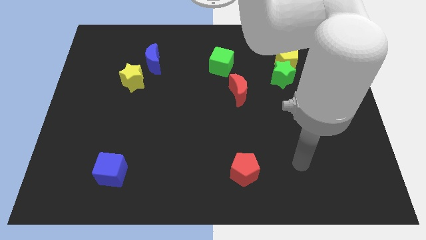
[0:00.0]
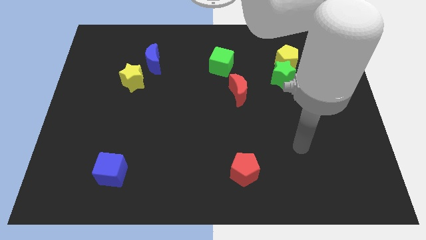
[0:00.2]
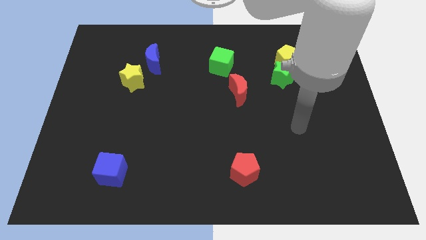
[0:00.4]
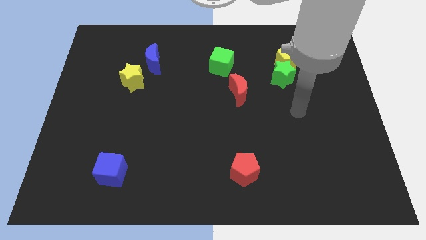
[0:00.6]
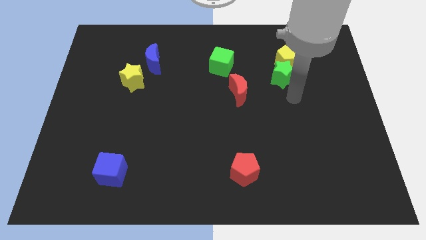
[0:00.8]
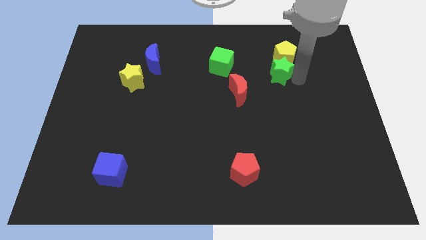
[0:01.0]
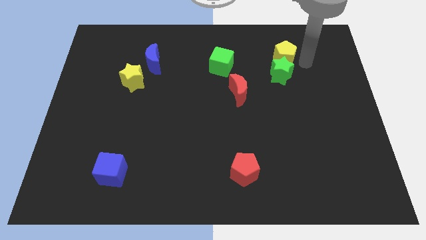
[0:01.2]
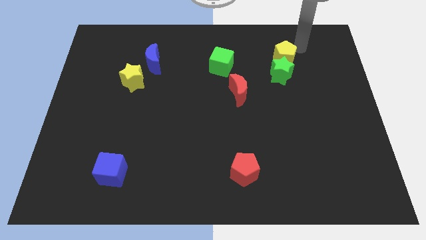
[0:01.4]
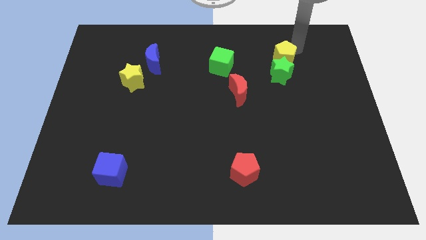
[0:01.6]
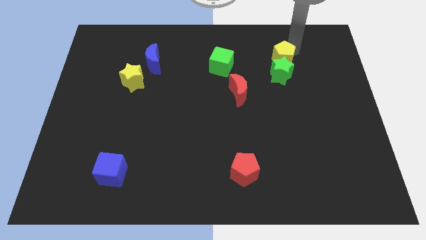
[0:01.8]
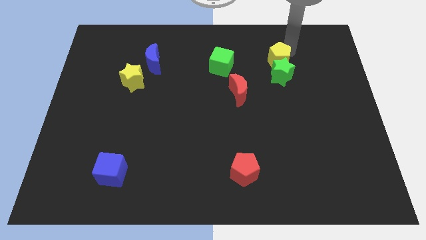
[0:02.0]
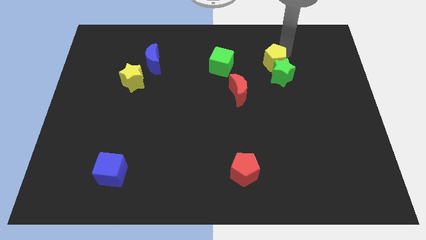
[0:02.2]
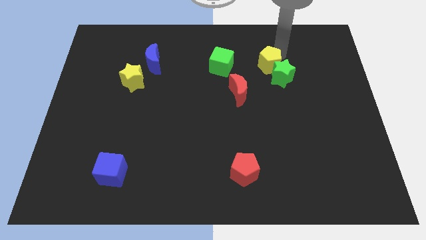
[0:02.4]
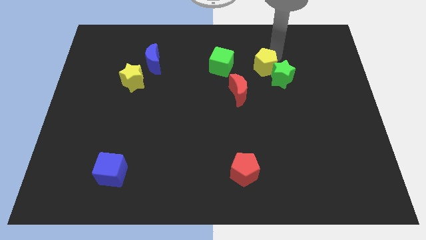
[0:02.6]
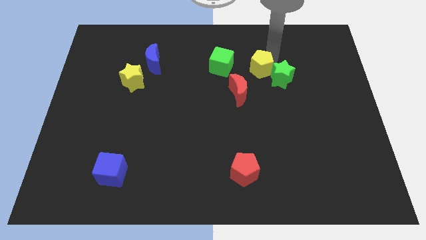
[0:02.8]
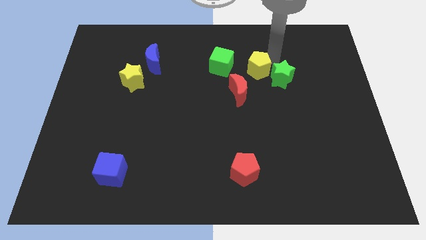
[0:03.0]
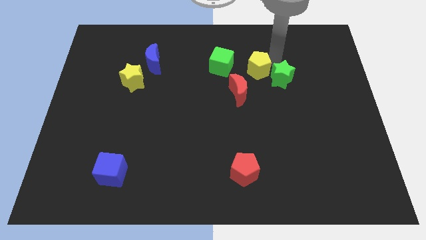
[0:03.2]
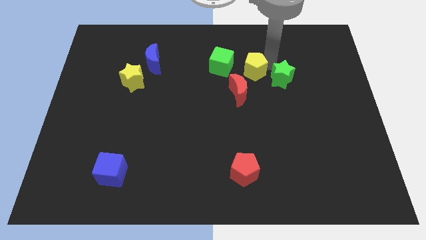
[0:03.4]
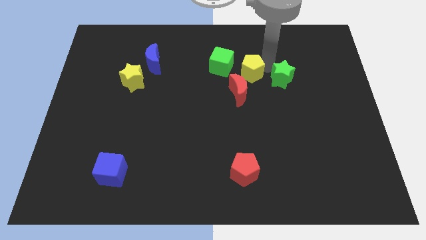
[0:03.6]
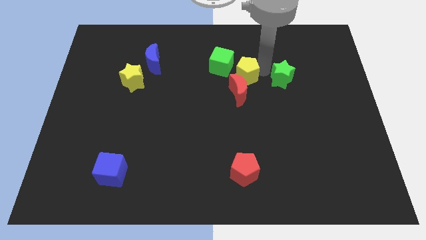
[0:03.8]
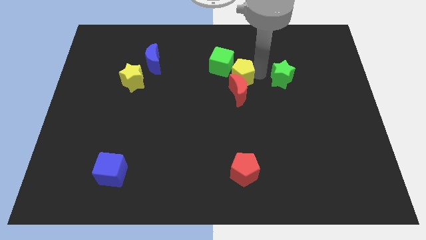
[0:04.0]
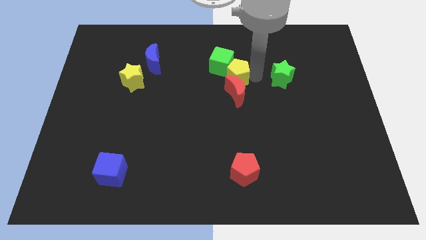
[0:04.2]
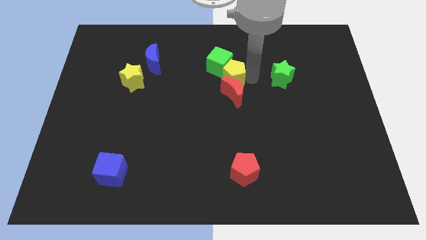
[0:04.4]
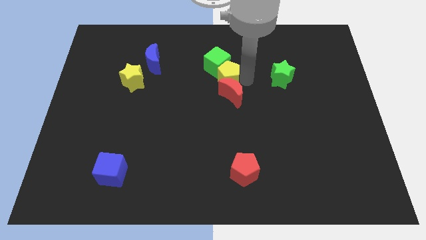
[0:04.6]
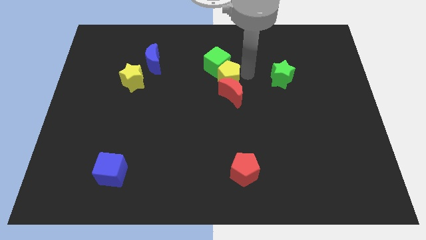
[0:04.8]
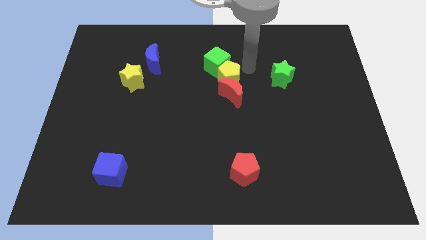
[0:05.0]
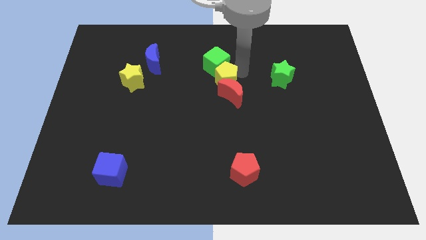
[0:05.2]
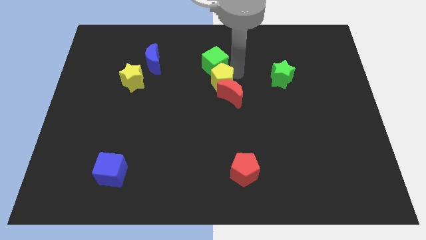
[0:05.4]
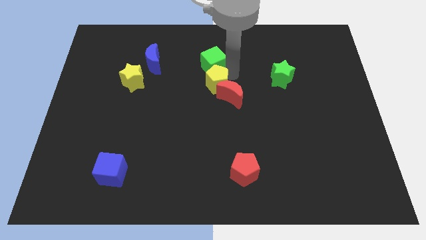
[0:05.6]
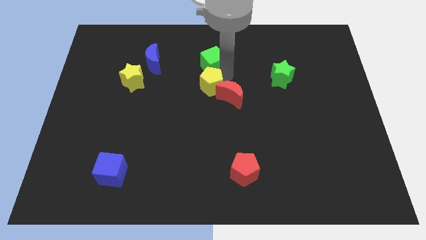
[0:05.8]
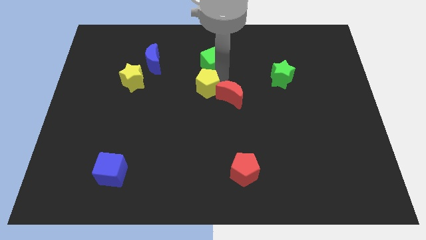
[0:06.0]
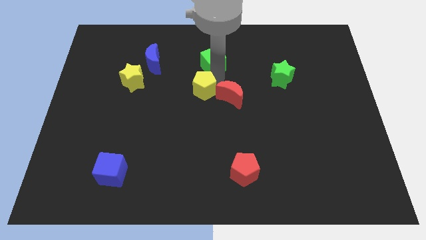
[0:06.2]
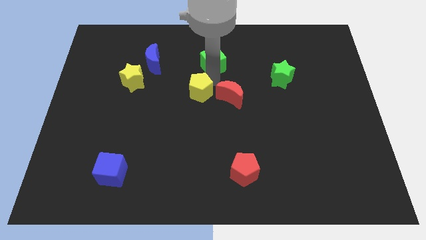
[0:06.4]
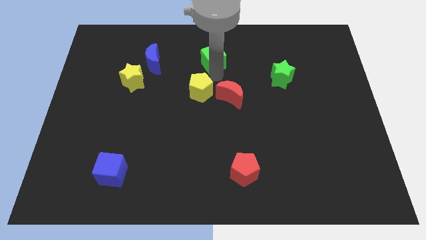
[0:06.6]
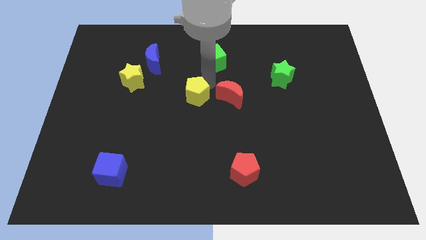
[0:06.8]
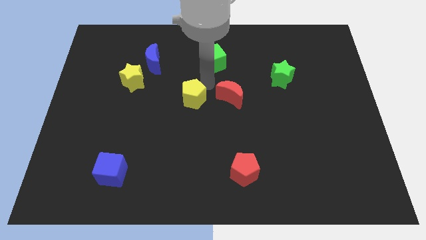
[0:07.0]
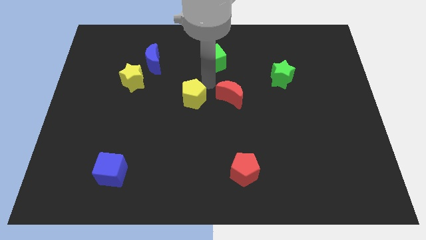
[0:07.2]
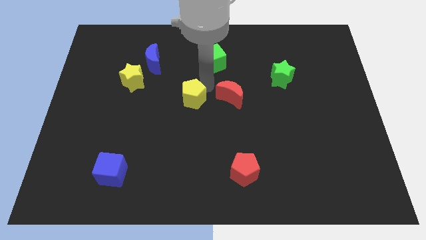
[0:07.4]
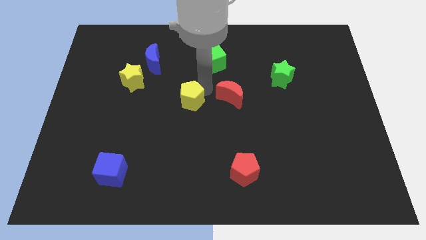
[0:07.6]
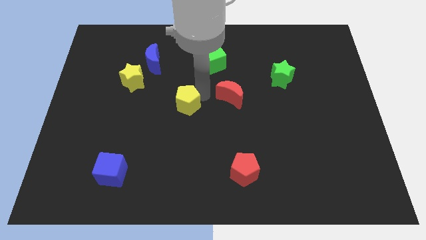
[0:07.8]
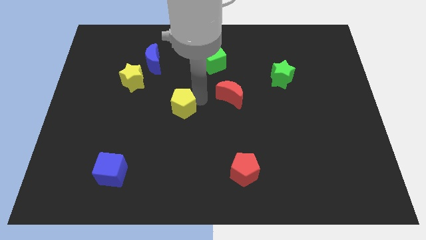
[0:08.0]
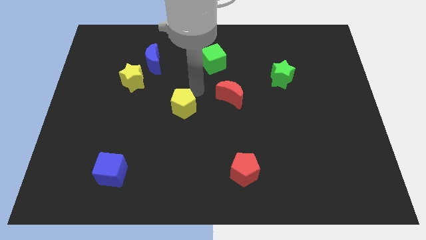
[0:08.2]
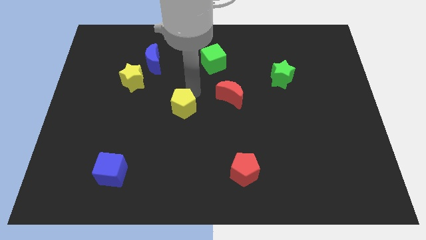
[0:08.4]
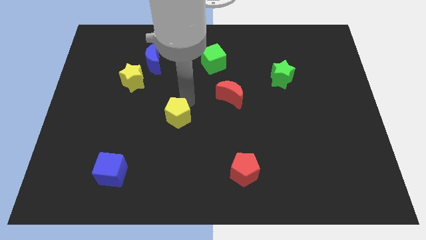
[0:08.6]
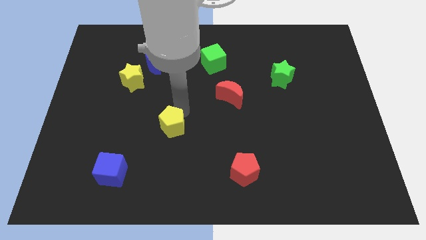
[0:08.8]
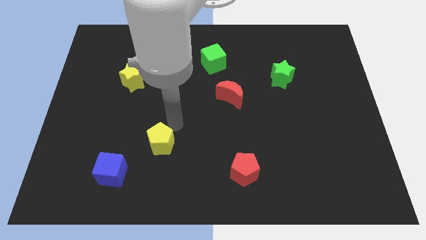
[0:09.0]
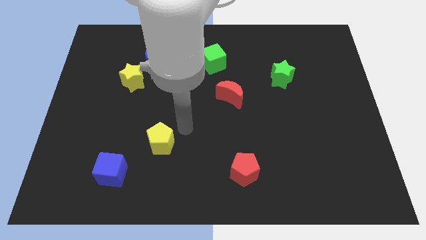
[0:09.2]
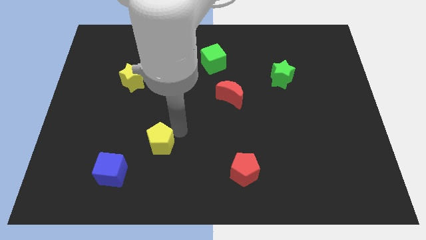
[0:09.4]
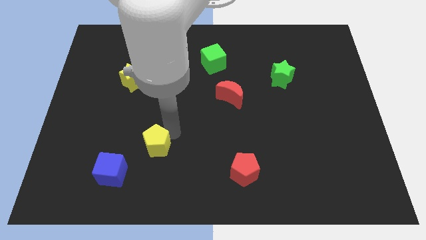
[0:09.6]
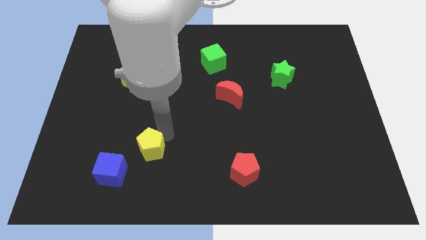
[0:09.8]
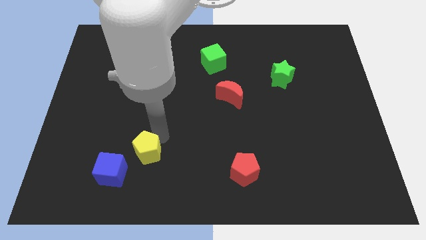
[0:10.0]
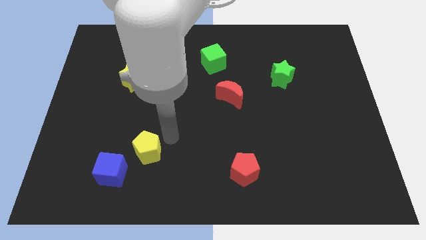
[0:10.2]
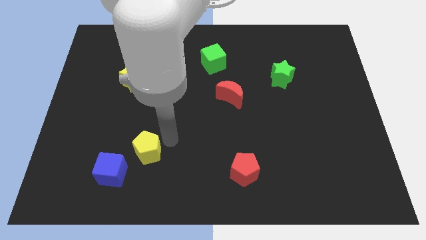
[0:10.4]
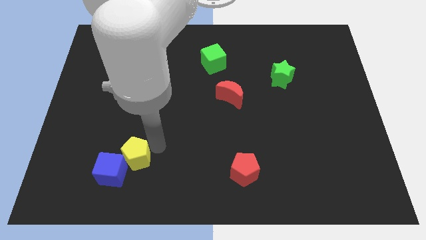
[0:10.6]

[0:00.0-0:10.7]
slide the yellow pentagon towards the blue cube

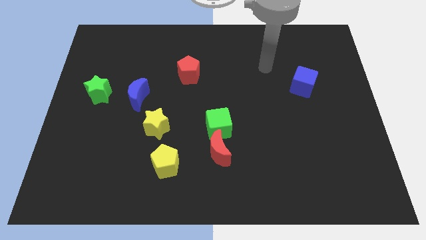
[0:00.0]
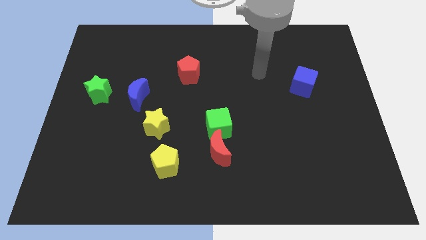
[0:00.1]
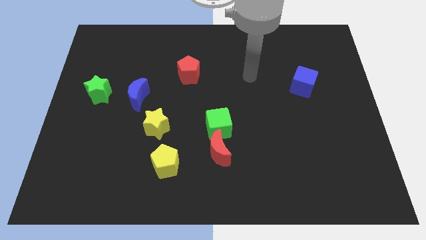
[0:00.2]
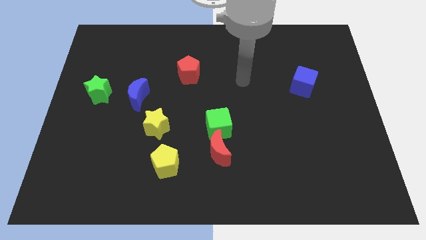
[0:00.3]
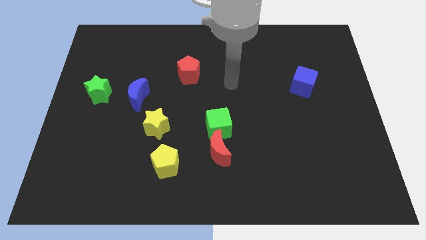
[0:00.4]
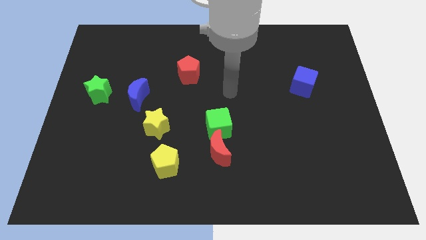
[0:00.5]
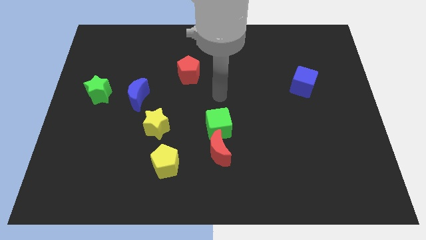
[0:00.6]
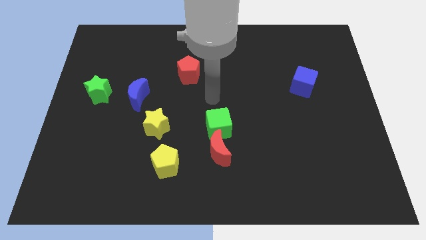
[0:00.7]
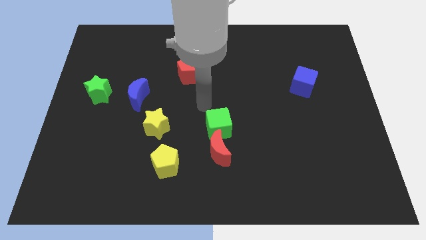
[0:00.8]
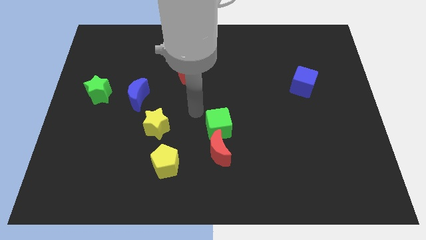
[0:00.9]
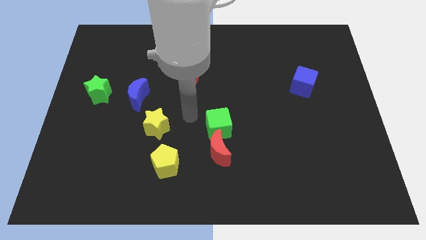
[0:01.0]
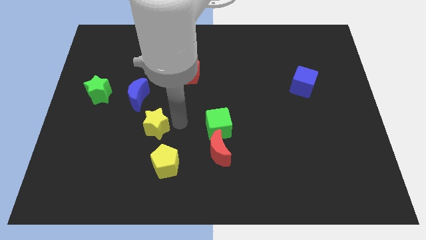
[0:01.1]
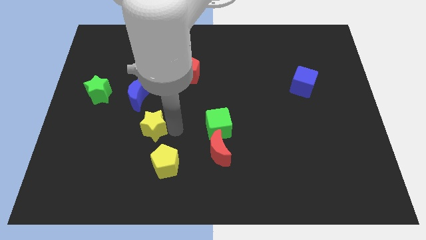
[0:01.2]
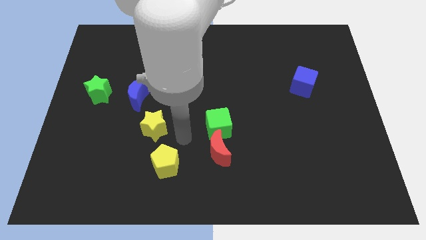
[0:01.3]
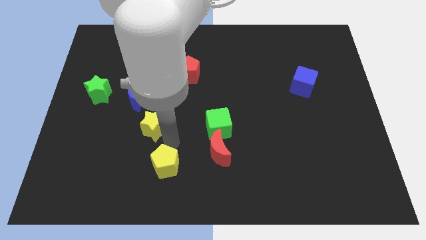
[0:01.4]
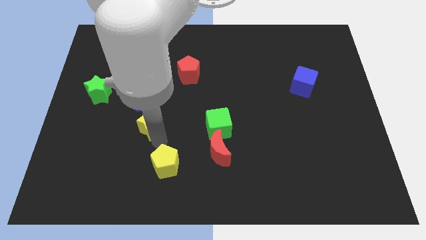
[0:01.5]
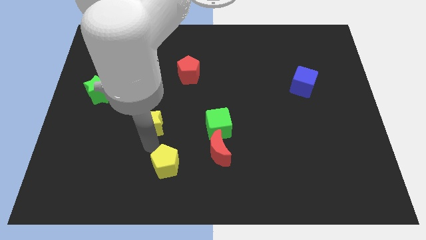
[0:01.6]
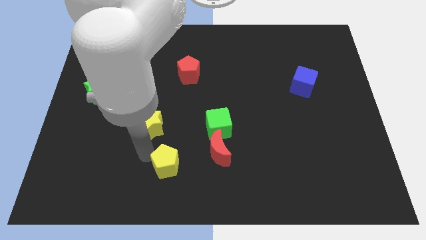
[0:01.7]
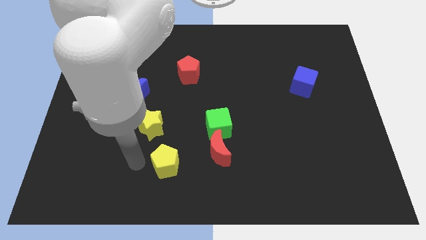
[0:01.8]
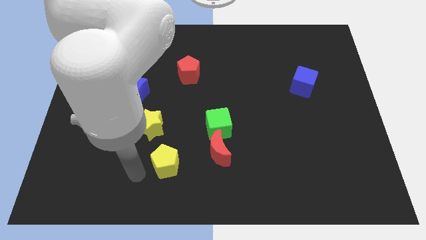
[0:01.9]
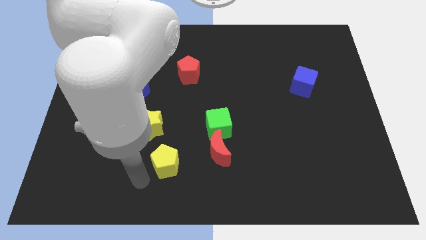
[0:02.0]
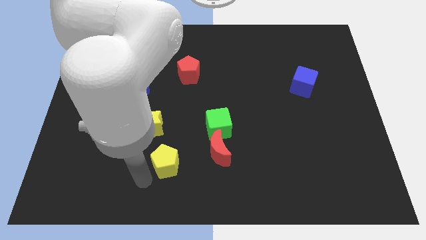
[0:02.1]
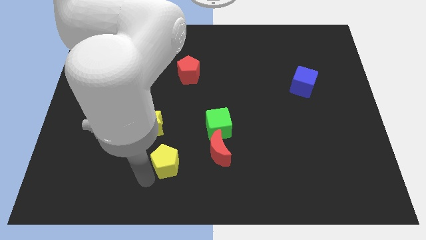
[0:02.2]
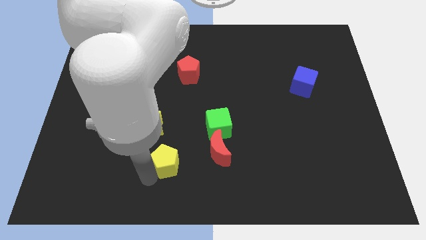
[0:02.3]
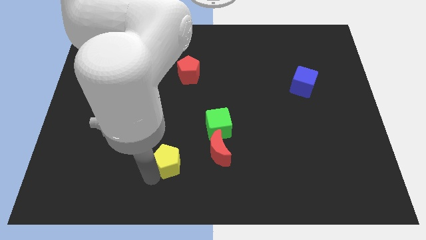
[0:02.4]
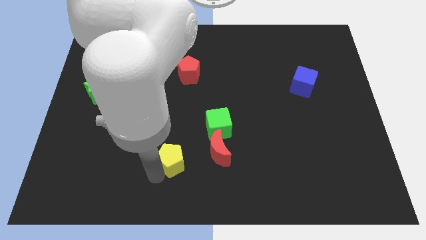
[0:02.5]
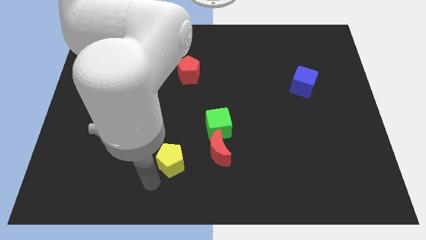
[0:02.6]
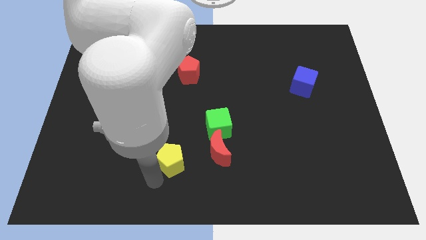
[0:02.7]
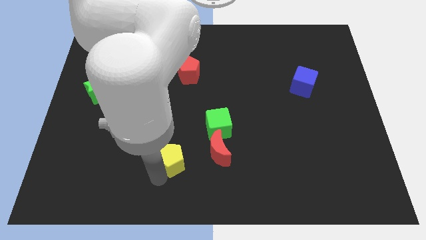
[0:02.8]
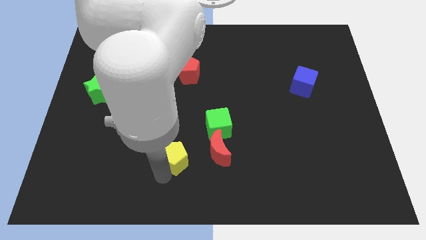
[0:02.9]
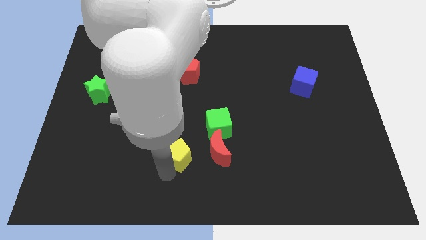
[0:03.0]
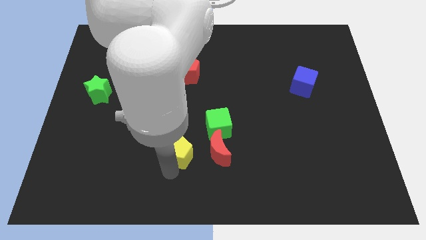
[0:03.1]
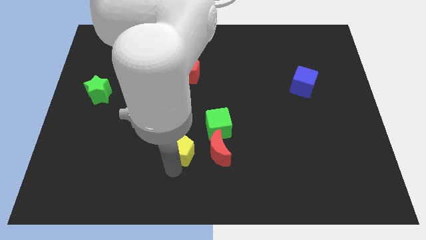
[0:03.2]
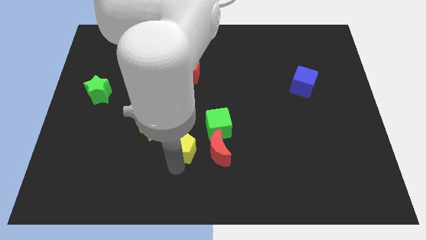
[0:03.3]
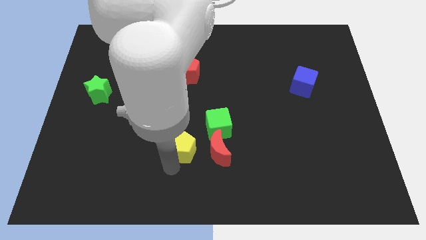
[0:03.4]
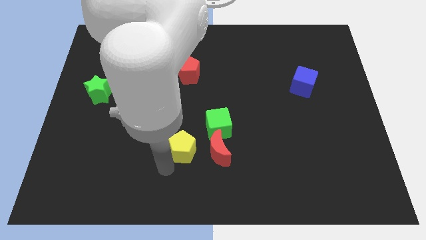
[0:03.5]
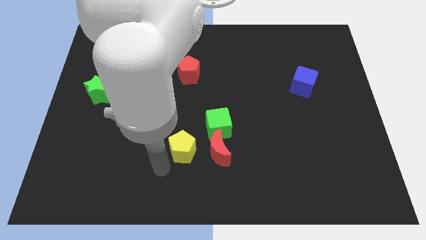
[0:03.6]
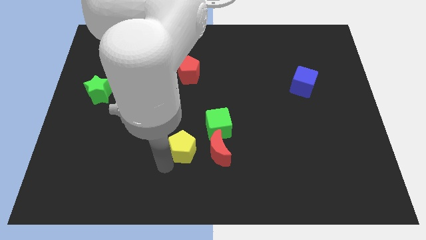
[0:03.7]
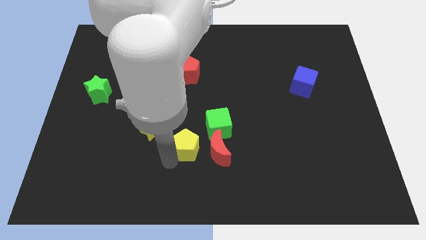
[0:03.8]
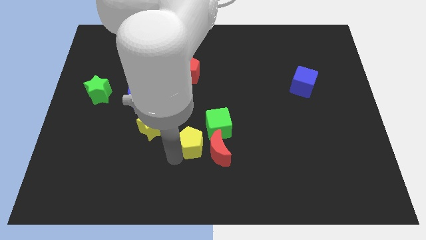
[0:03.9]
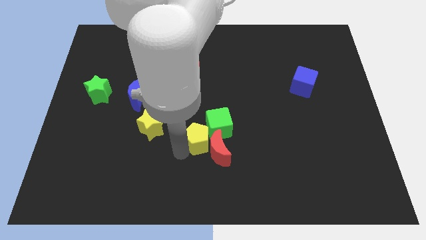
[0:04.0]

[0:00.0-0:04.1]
move the yellow pentagon next to the green cube
